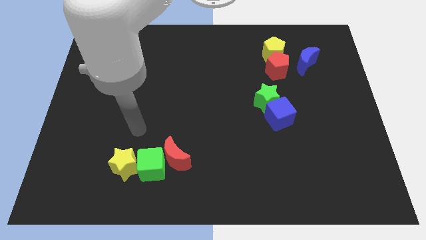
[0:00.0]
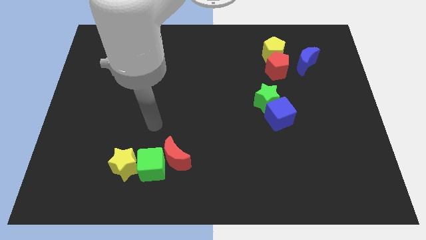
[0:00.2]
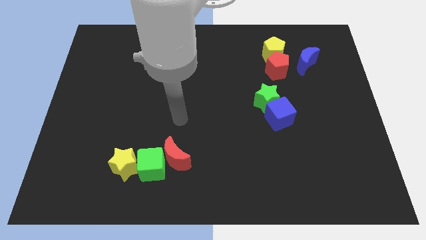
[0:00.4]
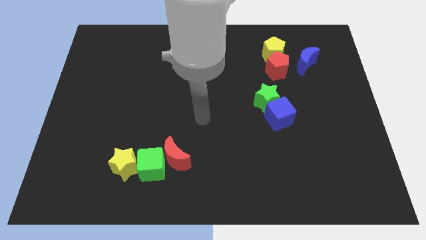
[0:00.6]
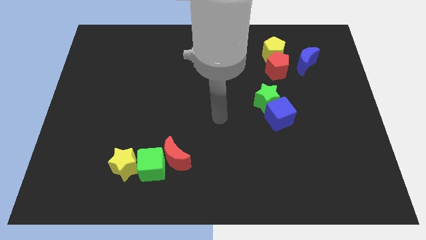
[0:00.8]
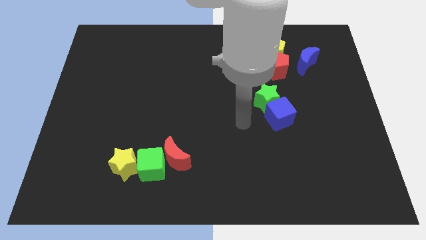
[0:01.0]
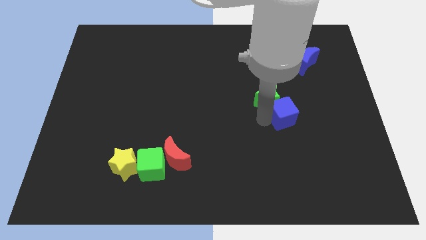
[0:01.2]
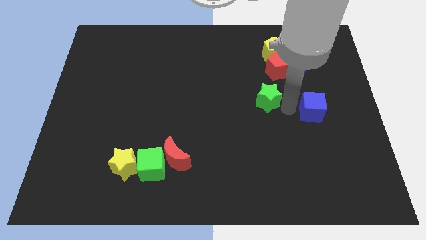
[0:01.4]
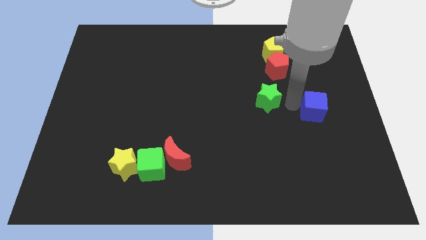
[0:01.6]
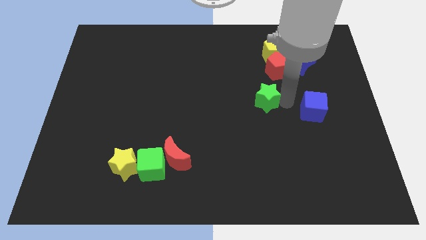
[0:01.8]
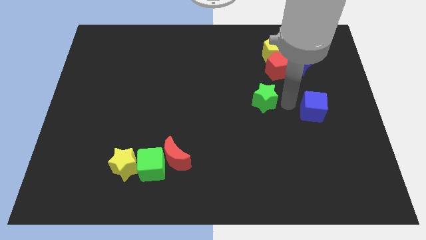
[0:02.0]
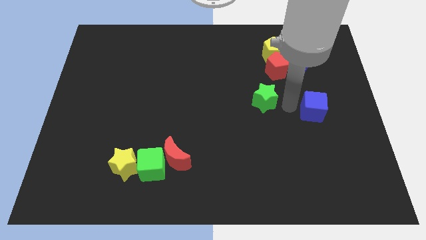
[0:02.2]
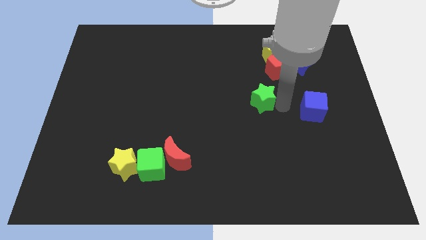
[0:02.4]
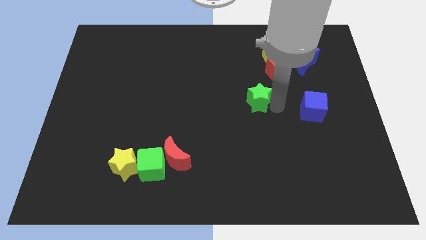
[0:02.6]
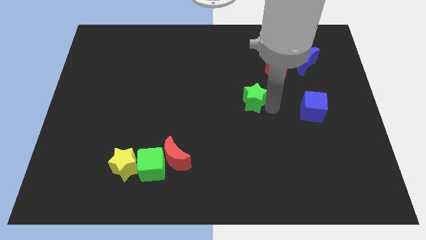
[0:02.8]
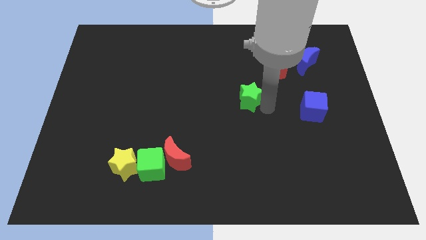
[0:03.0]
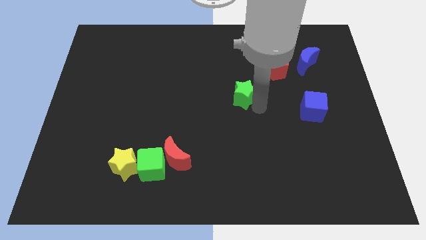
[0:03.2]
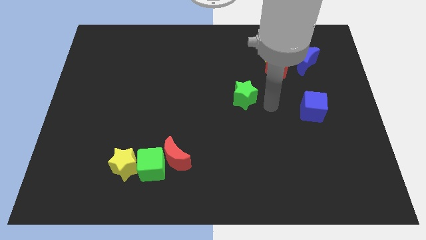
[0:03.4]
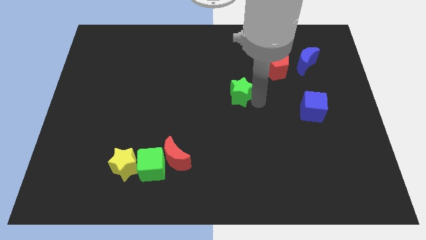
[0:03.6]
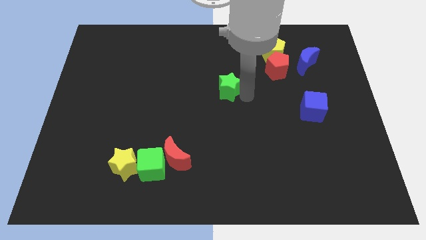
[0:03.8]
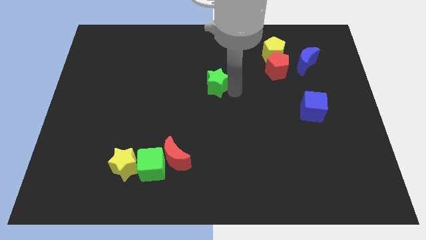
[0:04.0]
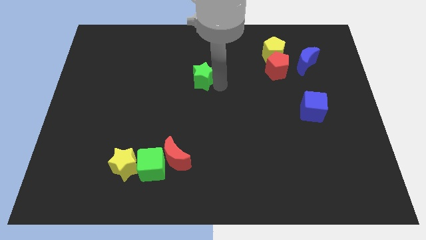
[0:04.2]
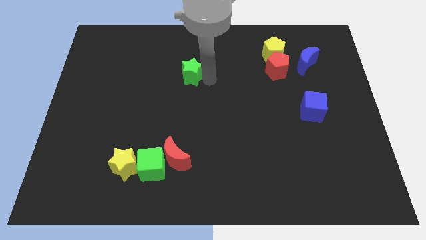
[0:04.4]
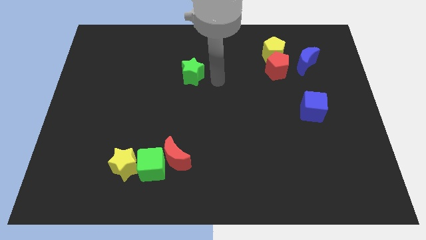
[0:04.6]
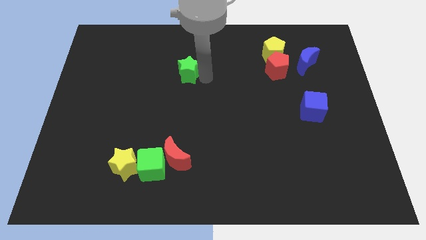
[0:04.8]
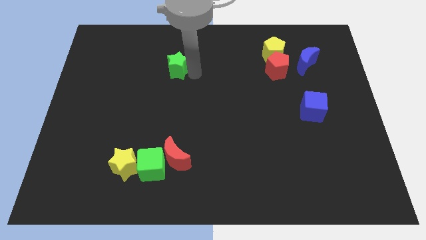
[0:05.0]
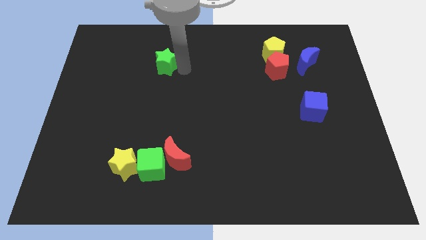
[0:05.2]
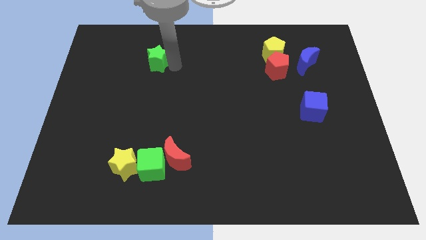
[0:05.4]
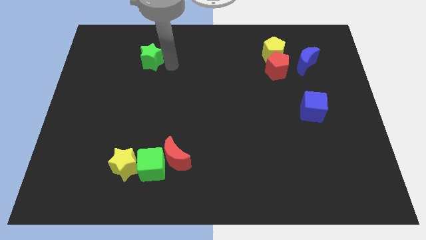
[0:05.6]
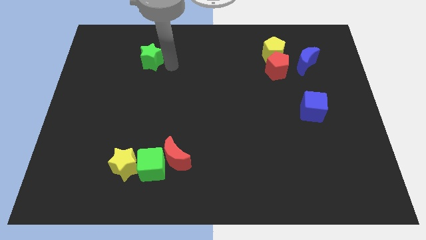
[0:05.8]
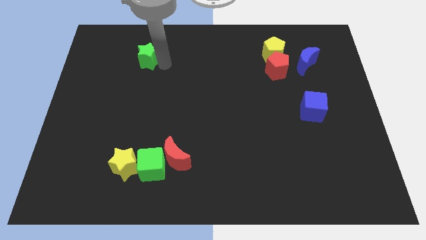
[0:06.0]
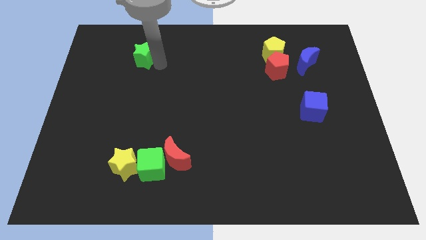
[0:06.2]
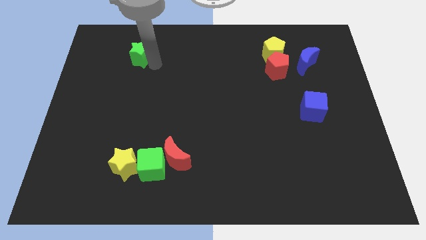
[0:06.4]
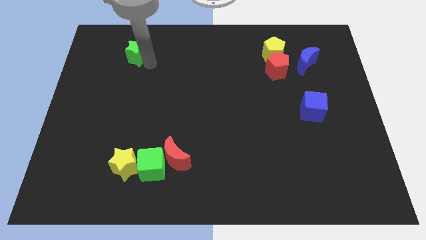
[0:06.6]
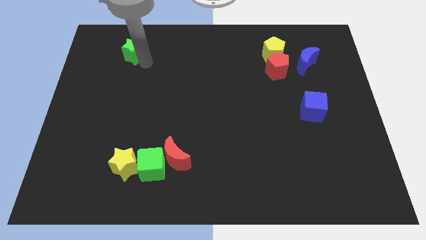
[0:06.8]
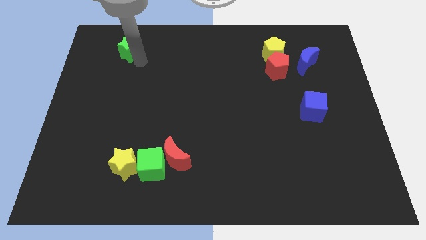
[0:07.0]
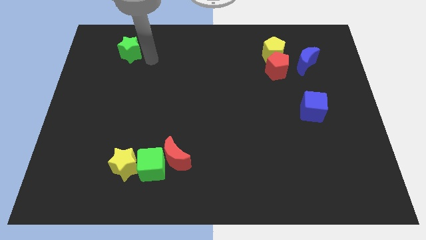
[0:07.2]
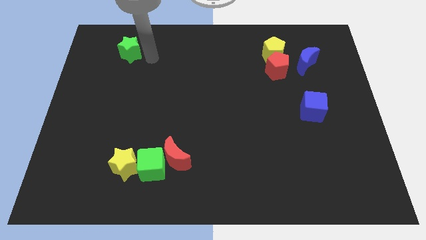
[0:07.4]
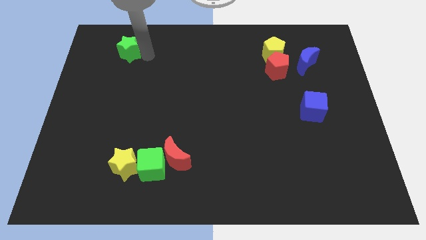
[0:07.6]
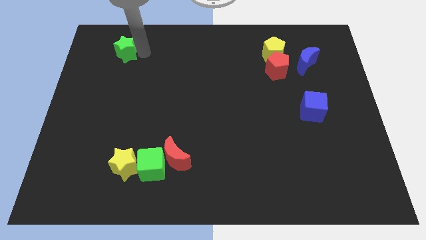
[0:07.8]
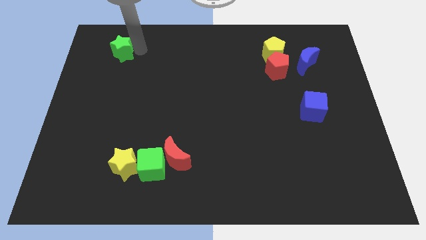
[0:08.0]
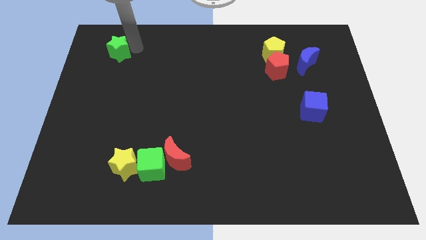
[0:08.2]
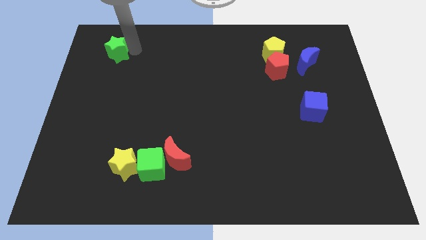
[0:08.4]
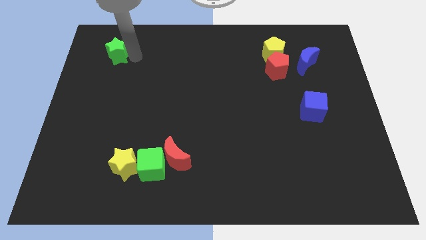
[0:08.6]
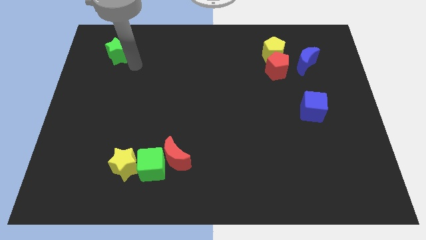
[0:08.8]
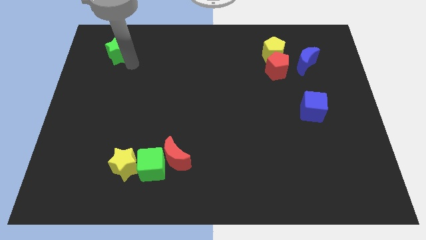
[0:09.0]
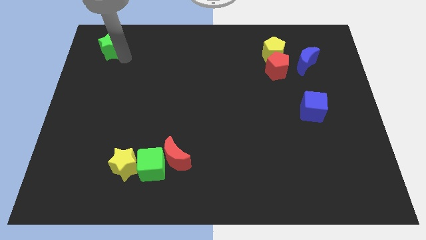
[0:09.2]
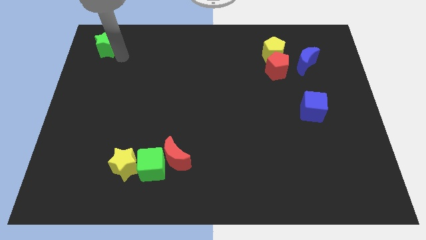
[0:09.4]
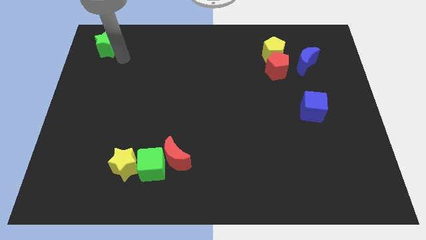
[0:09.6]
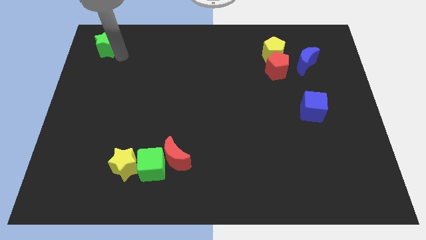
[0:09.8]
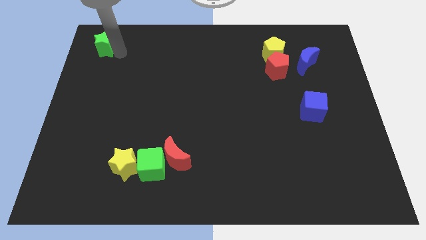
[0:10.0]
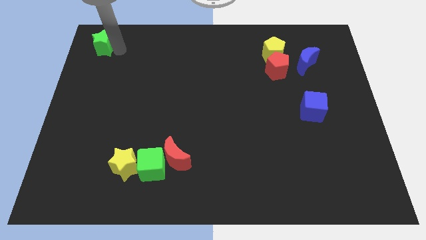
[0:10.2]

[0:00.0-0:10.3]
put the green star to the top left
